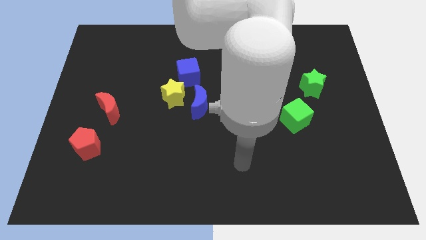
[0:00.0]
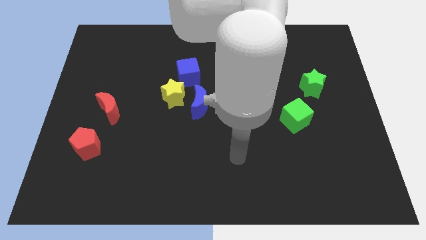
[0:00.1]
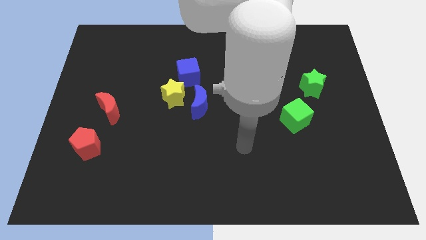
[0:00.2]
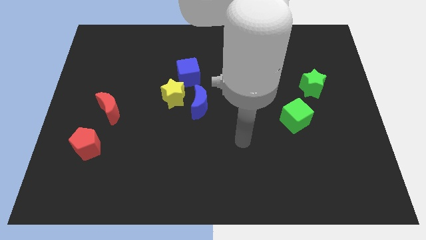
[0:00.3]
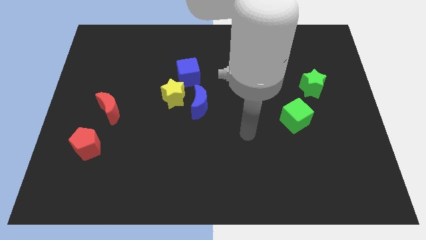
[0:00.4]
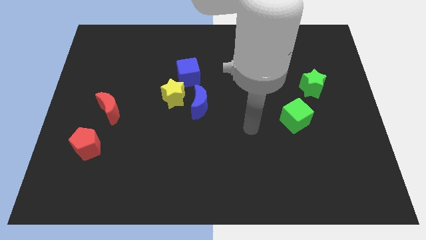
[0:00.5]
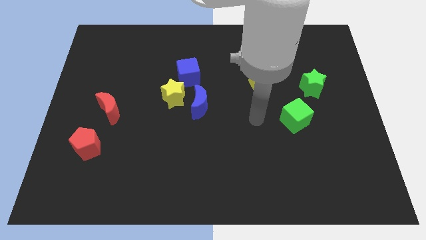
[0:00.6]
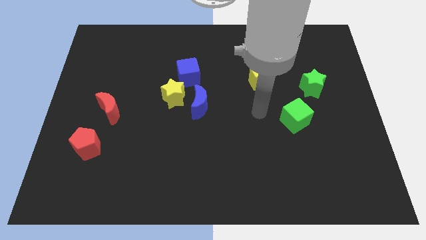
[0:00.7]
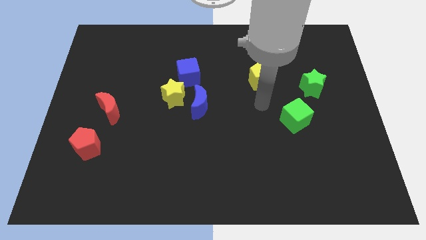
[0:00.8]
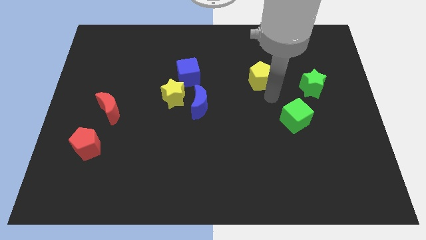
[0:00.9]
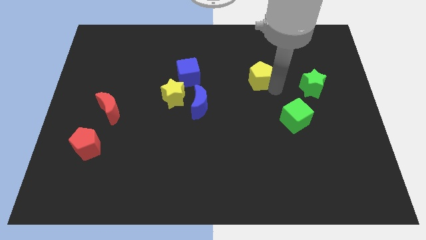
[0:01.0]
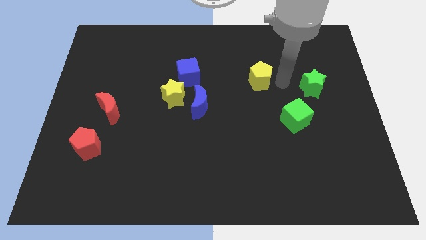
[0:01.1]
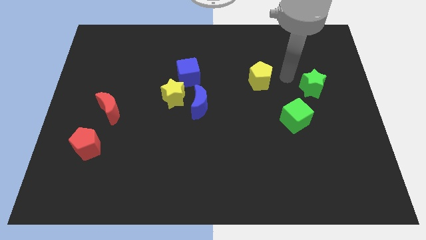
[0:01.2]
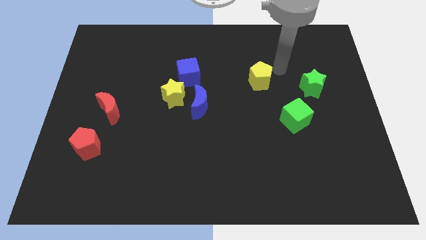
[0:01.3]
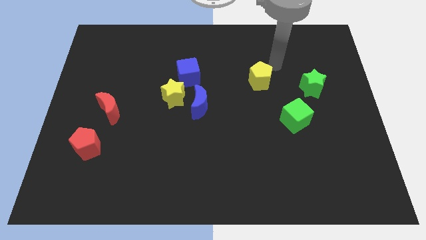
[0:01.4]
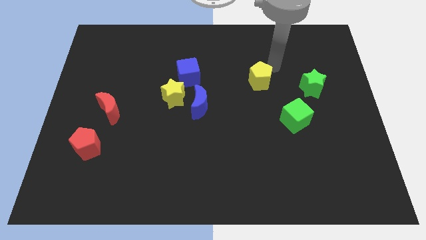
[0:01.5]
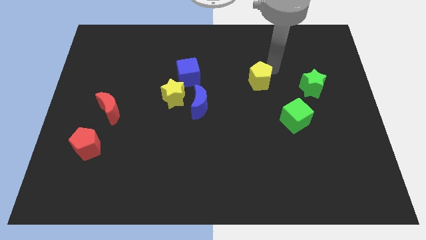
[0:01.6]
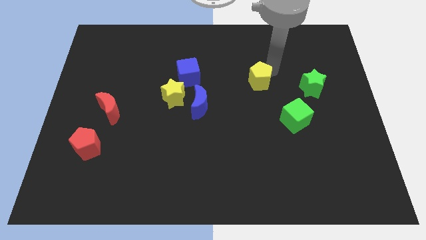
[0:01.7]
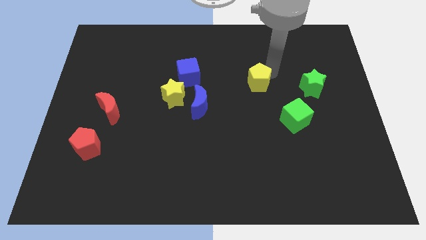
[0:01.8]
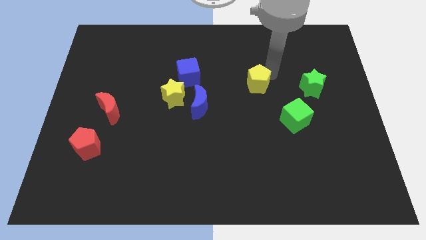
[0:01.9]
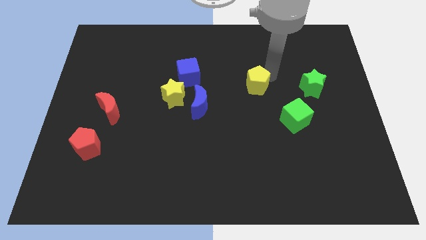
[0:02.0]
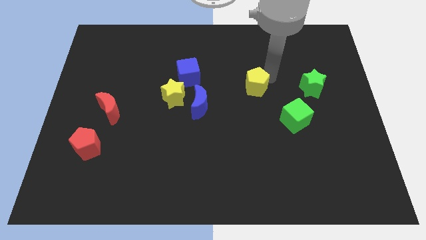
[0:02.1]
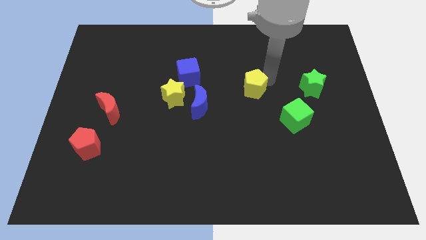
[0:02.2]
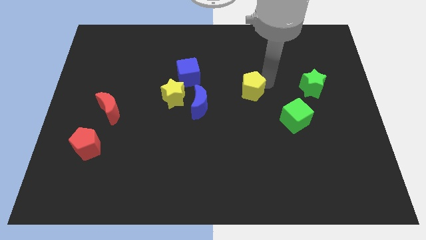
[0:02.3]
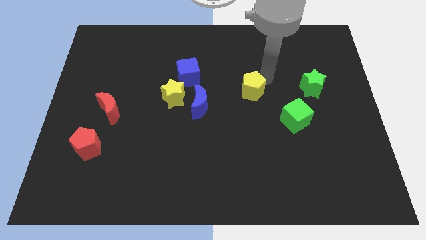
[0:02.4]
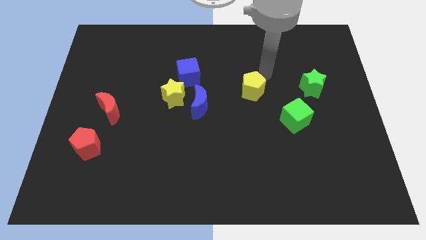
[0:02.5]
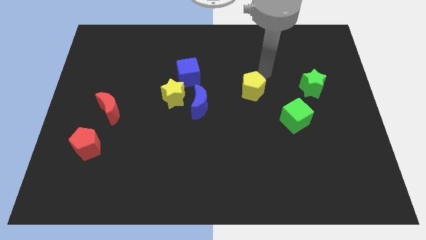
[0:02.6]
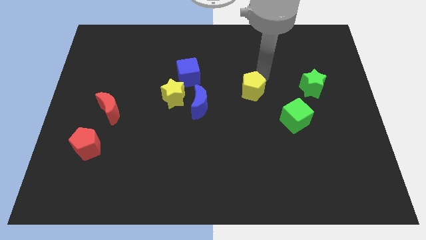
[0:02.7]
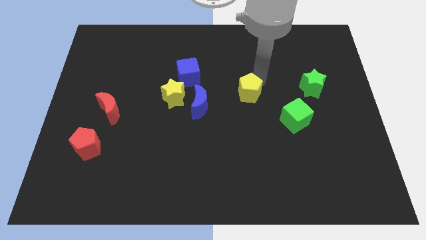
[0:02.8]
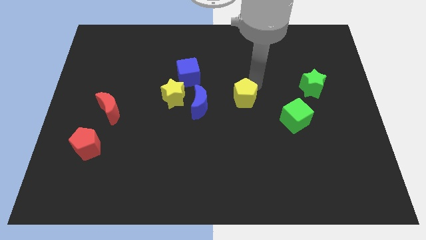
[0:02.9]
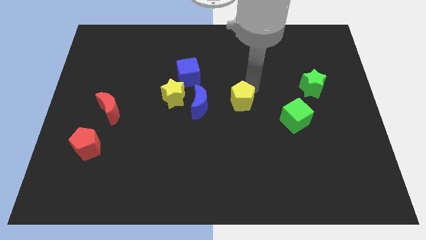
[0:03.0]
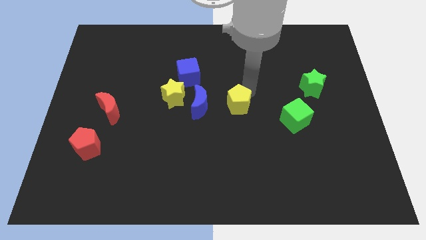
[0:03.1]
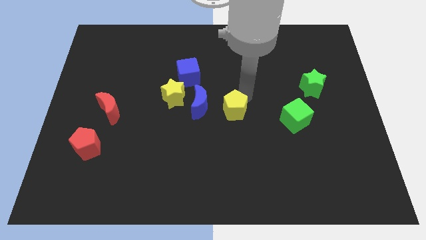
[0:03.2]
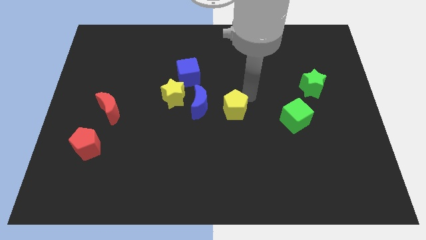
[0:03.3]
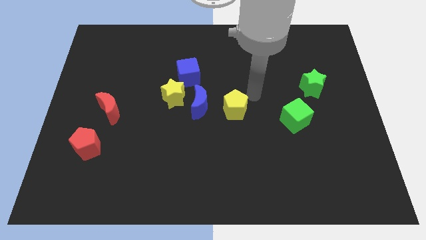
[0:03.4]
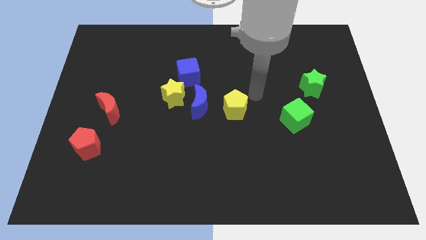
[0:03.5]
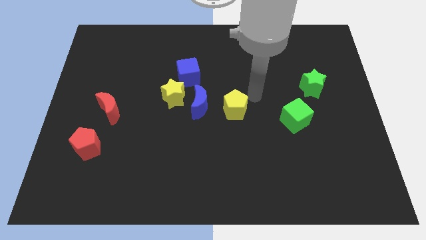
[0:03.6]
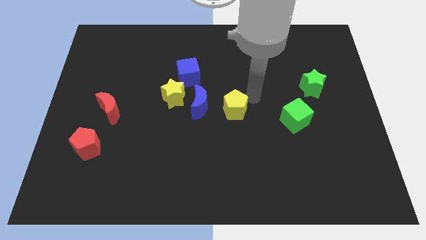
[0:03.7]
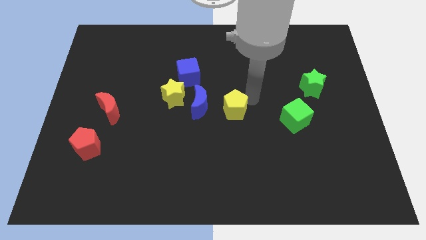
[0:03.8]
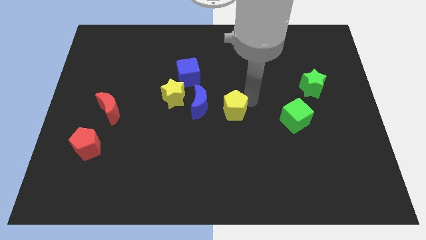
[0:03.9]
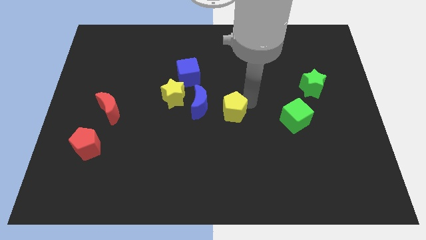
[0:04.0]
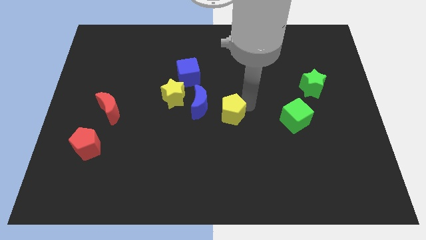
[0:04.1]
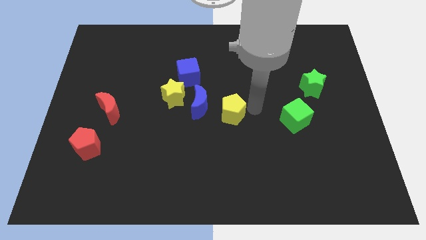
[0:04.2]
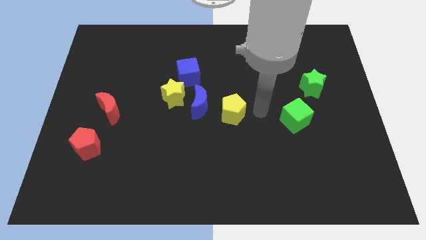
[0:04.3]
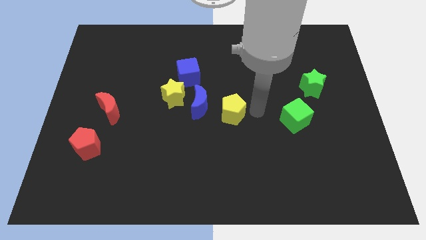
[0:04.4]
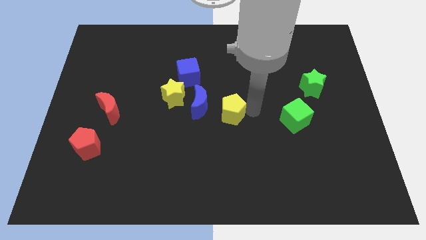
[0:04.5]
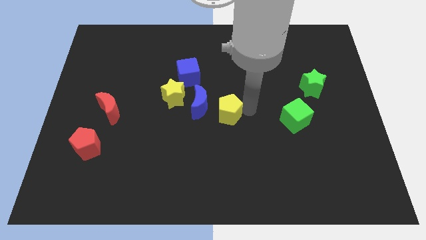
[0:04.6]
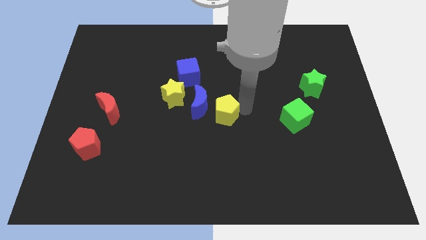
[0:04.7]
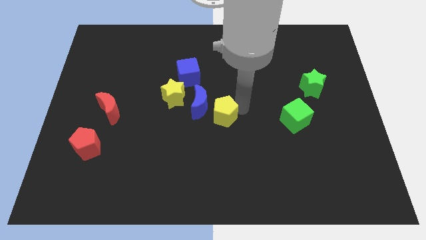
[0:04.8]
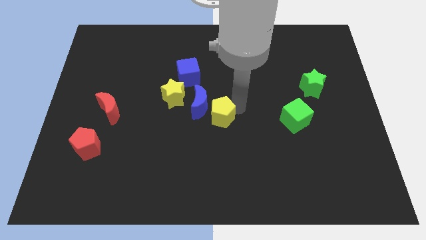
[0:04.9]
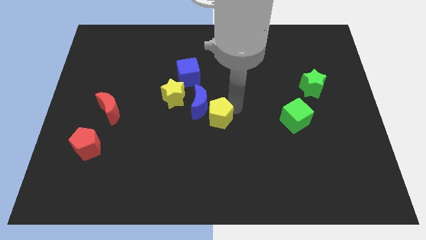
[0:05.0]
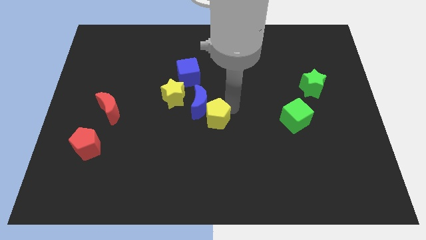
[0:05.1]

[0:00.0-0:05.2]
move the yellow pentagon to the bottom right side of the yellow star

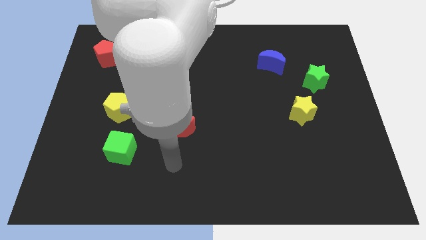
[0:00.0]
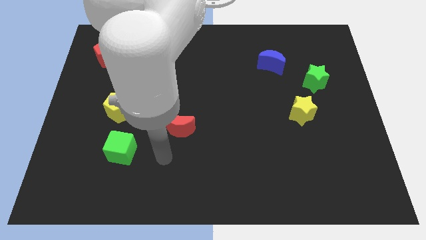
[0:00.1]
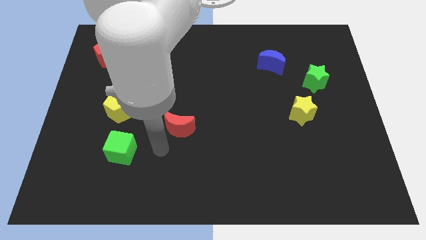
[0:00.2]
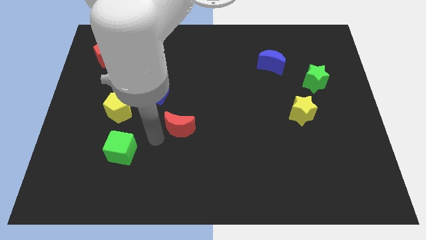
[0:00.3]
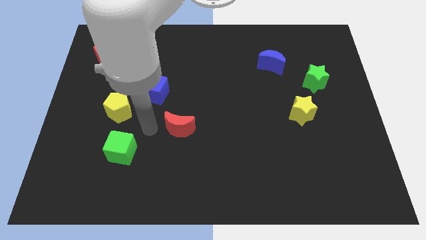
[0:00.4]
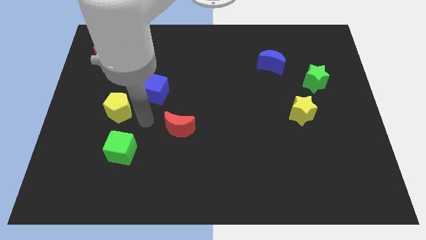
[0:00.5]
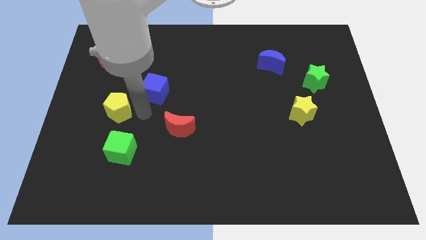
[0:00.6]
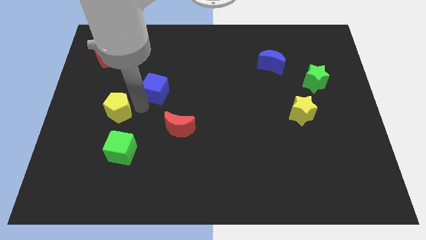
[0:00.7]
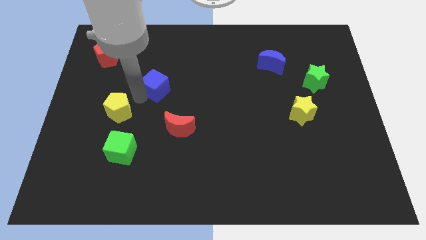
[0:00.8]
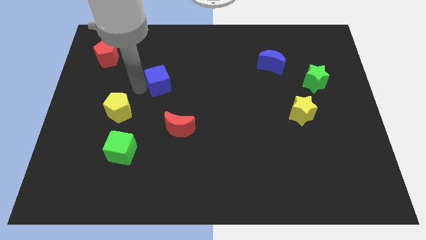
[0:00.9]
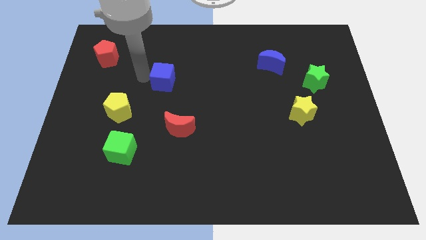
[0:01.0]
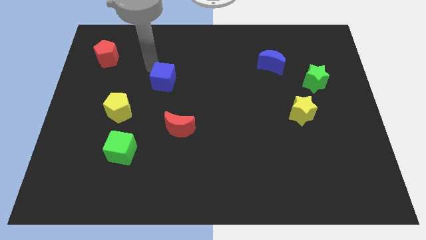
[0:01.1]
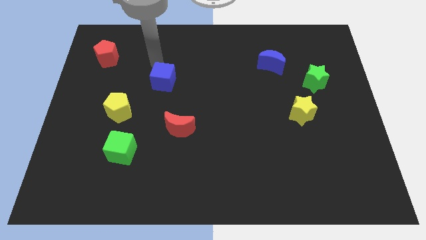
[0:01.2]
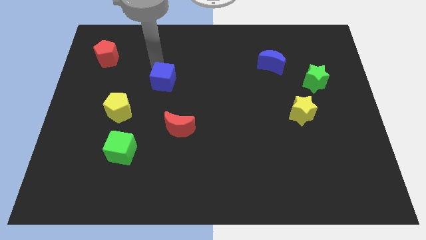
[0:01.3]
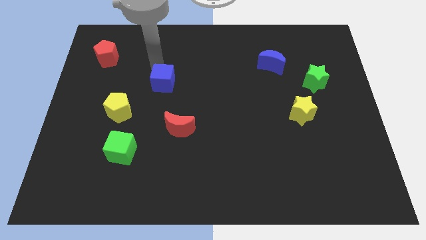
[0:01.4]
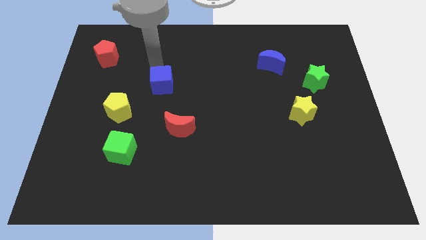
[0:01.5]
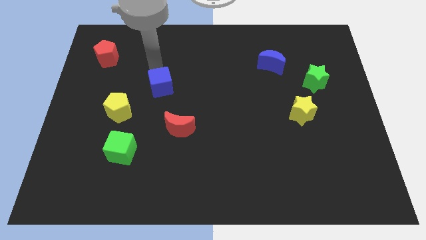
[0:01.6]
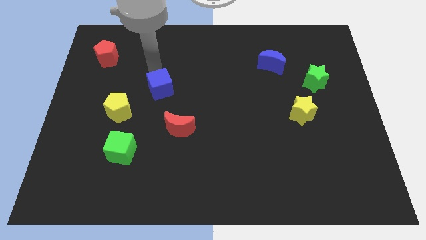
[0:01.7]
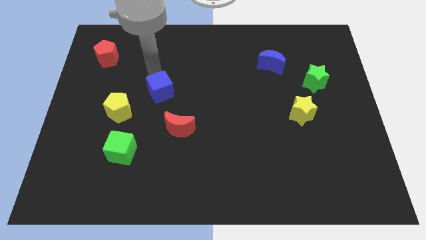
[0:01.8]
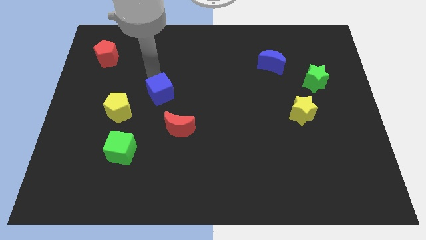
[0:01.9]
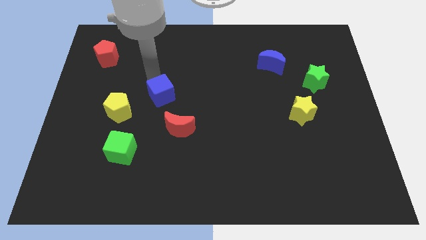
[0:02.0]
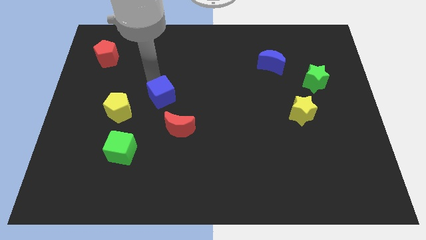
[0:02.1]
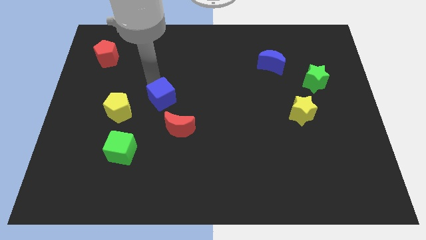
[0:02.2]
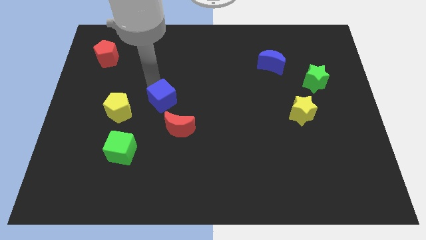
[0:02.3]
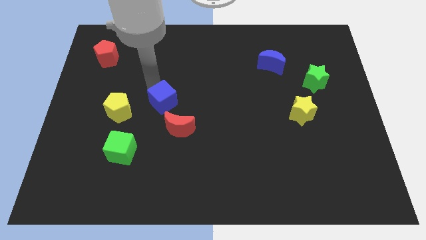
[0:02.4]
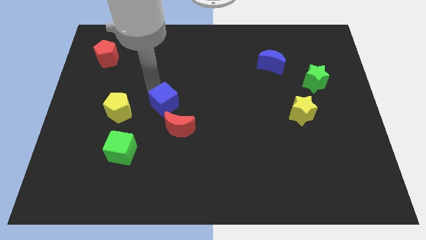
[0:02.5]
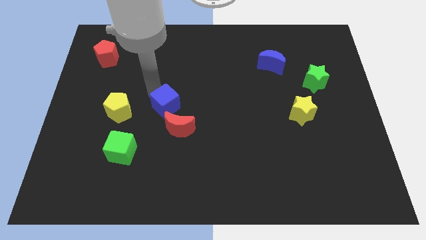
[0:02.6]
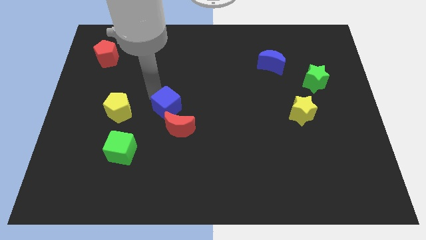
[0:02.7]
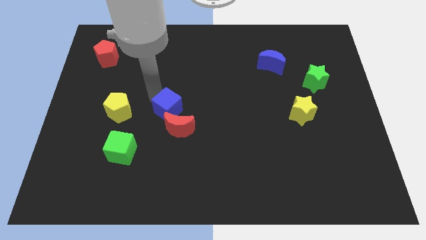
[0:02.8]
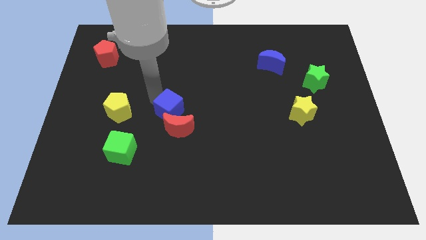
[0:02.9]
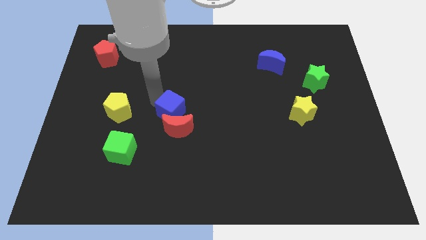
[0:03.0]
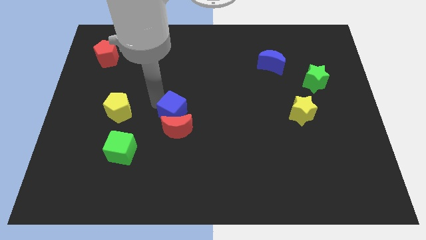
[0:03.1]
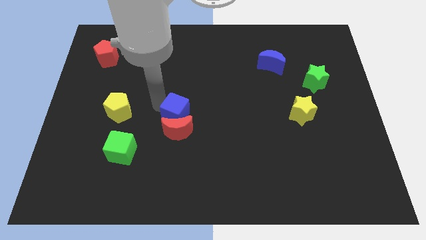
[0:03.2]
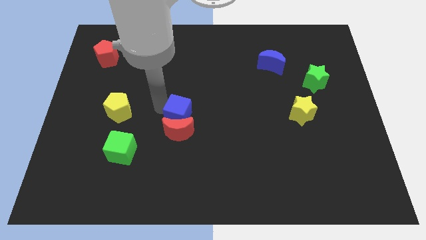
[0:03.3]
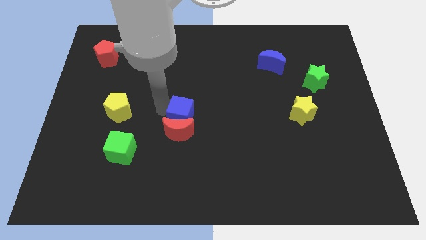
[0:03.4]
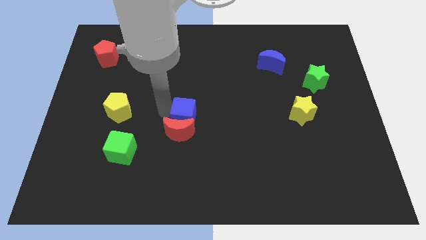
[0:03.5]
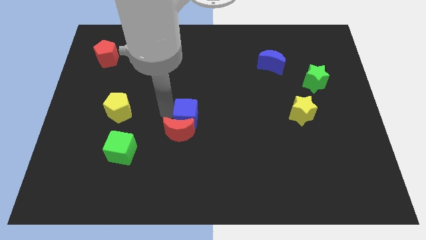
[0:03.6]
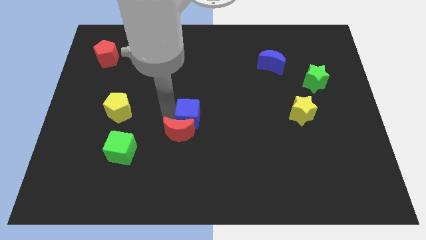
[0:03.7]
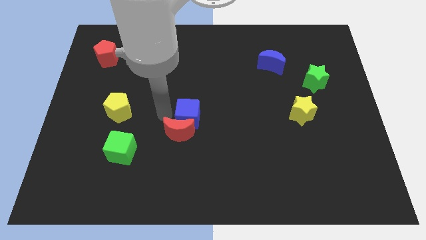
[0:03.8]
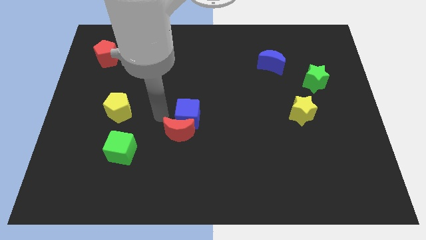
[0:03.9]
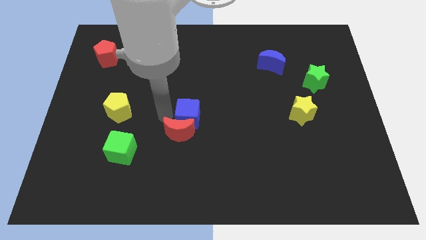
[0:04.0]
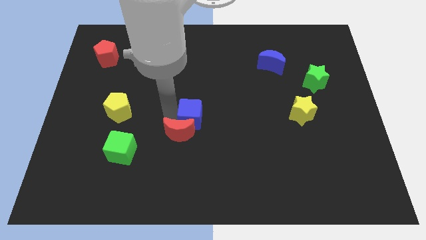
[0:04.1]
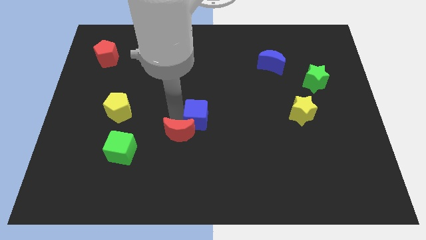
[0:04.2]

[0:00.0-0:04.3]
push the blue cube to the right side of the red moon
